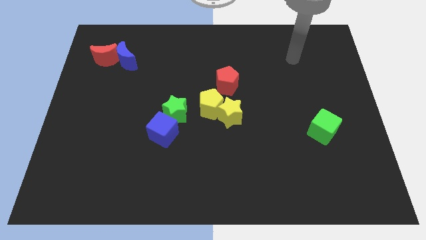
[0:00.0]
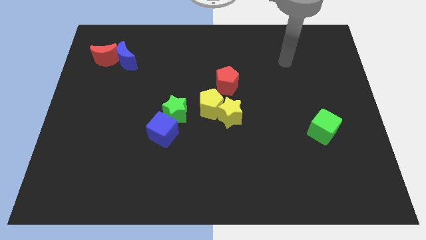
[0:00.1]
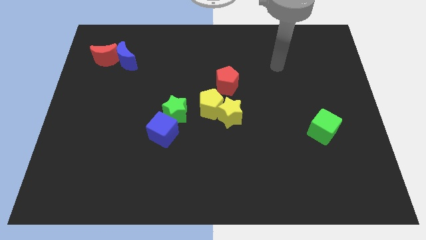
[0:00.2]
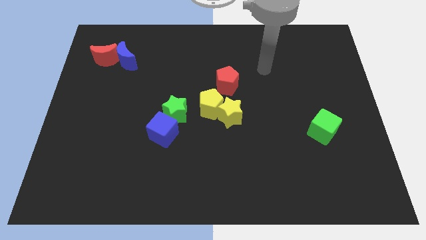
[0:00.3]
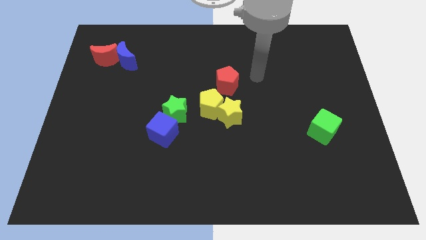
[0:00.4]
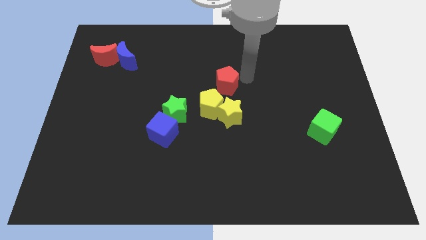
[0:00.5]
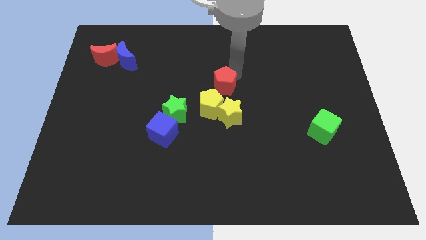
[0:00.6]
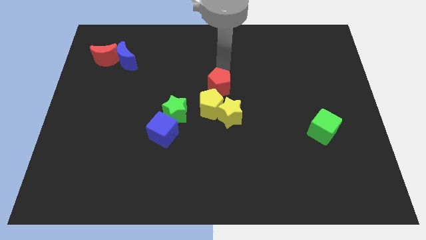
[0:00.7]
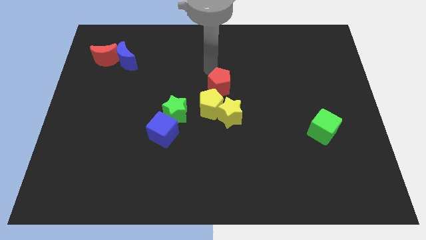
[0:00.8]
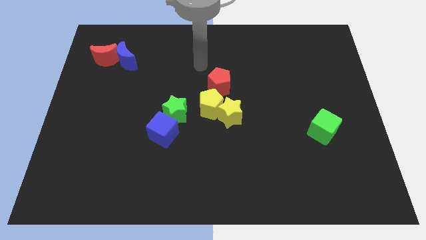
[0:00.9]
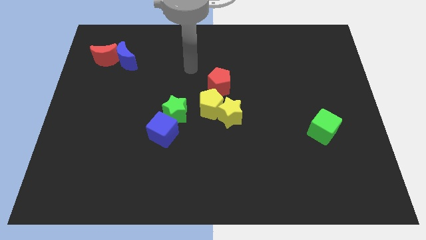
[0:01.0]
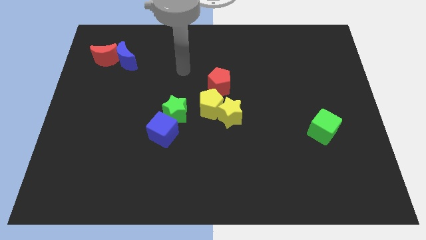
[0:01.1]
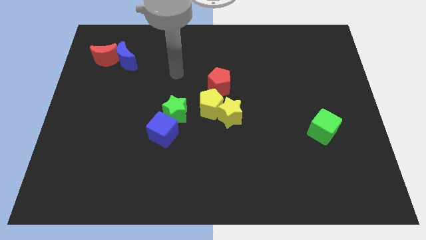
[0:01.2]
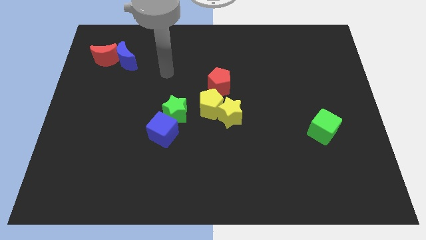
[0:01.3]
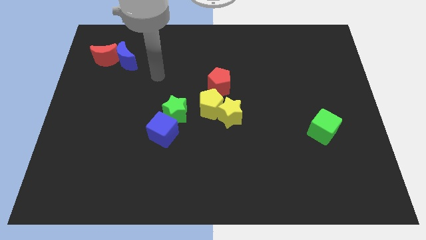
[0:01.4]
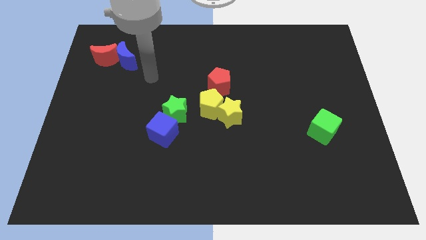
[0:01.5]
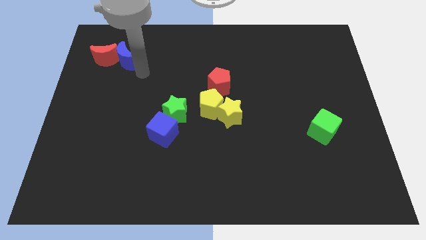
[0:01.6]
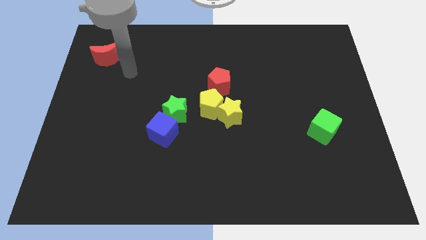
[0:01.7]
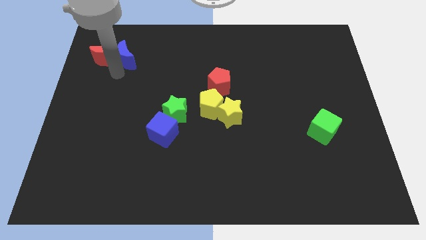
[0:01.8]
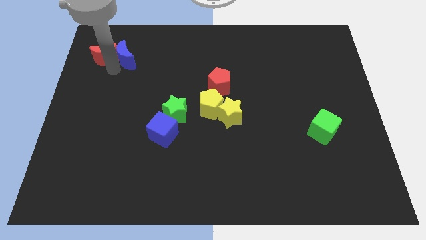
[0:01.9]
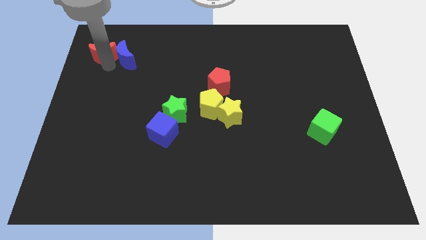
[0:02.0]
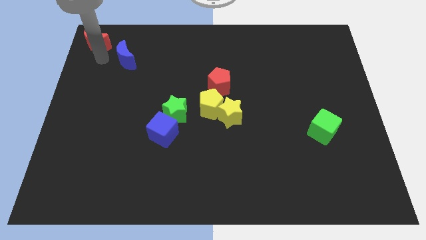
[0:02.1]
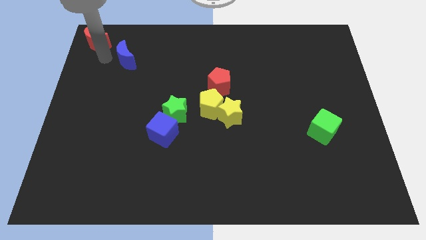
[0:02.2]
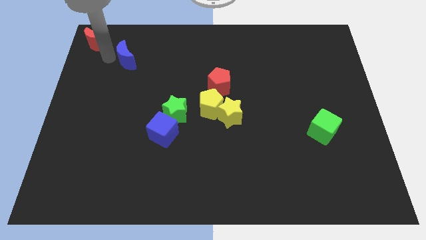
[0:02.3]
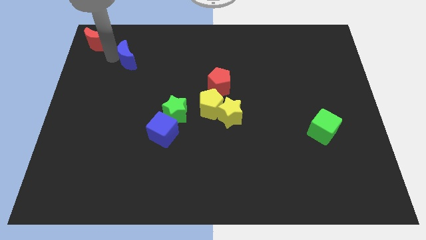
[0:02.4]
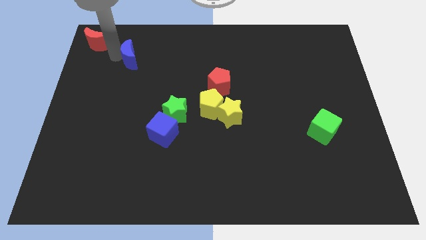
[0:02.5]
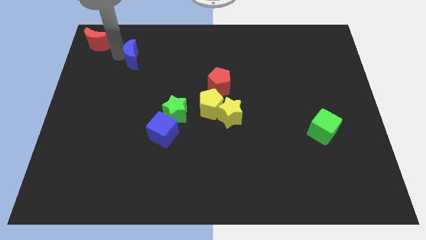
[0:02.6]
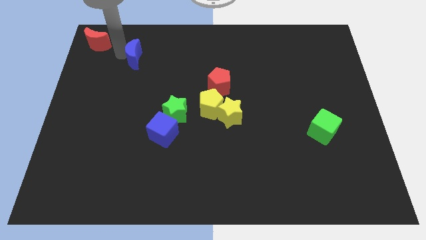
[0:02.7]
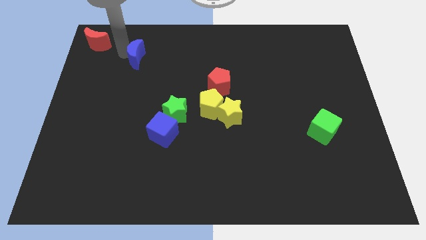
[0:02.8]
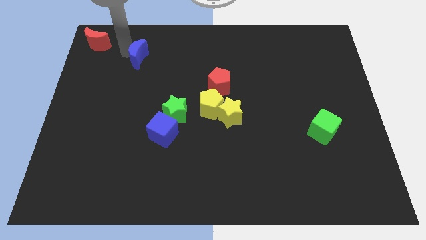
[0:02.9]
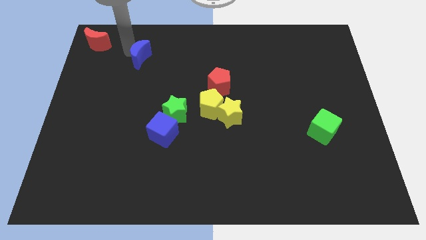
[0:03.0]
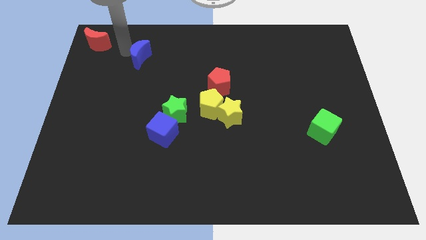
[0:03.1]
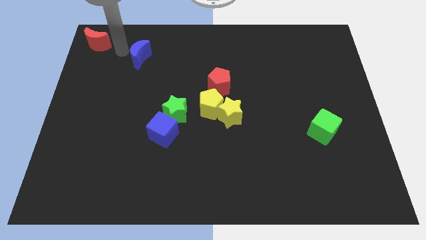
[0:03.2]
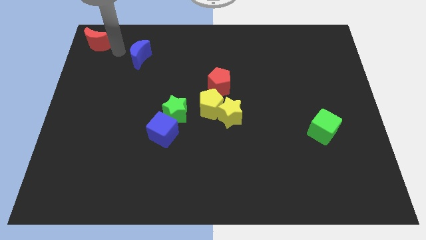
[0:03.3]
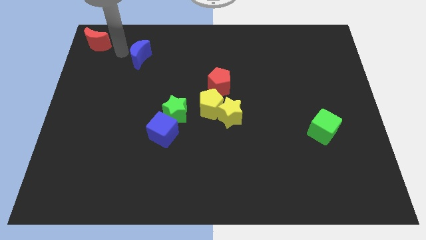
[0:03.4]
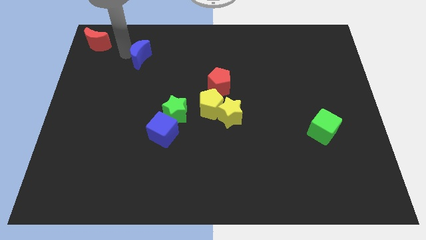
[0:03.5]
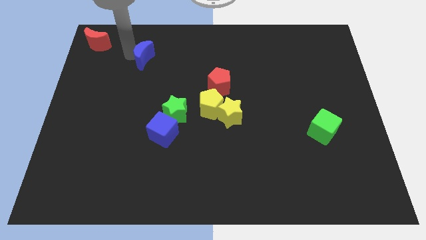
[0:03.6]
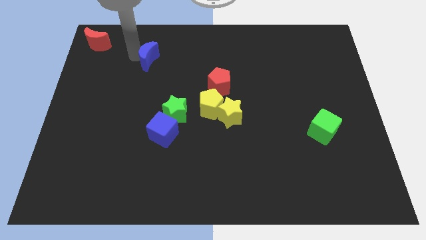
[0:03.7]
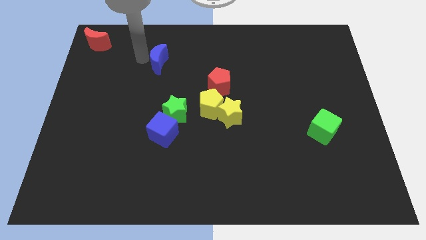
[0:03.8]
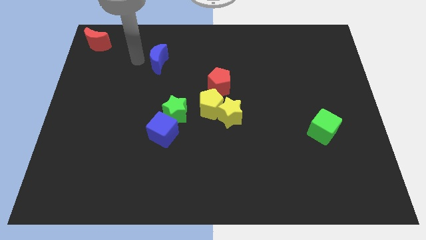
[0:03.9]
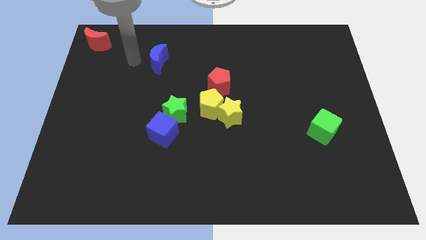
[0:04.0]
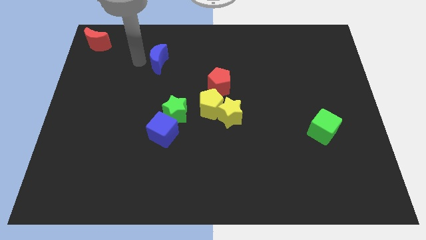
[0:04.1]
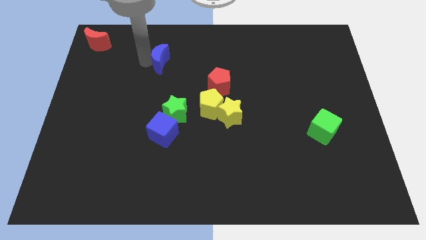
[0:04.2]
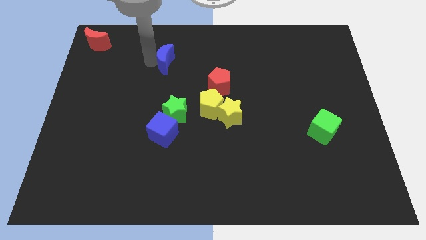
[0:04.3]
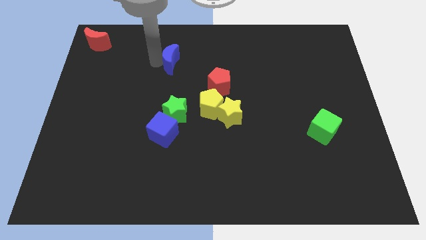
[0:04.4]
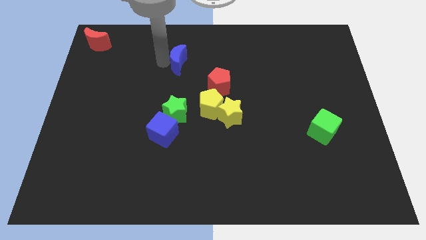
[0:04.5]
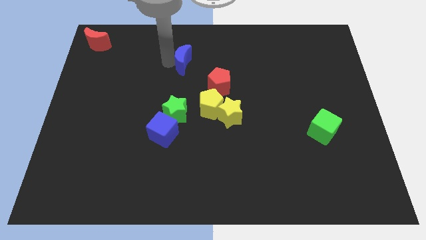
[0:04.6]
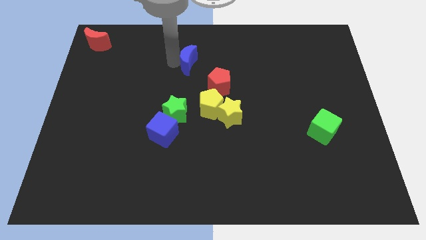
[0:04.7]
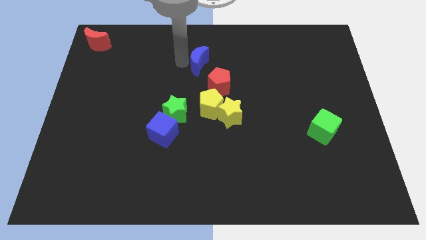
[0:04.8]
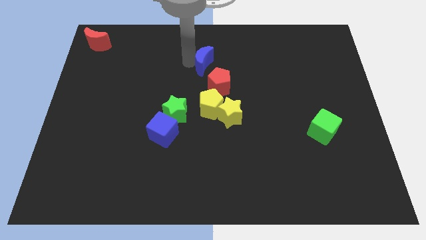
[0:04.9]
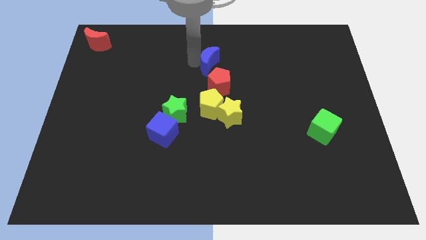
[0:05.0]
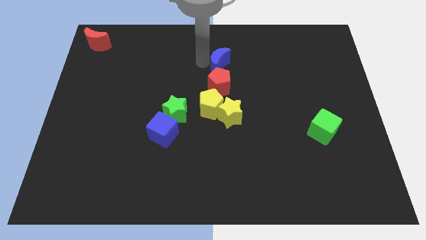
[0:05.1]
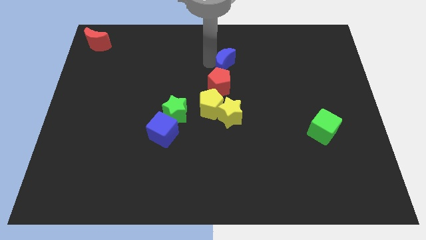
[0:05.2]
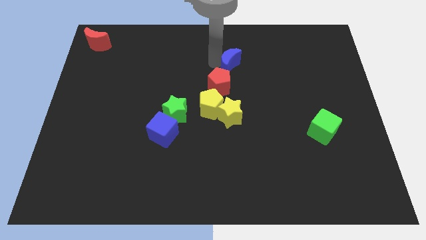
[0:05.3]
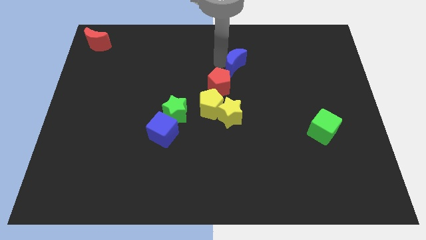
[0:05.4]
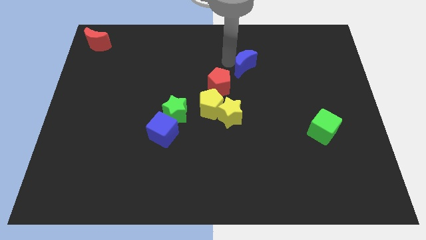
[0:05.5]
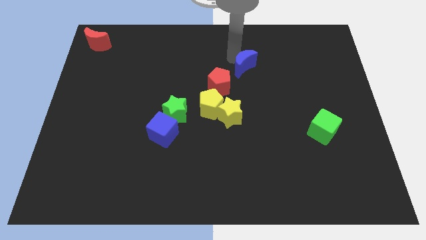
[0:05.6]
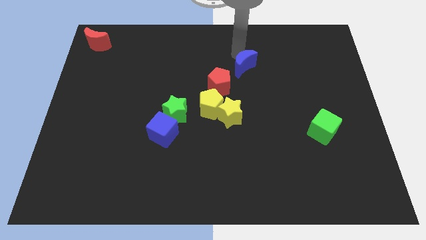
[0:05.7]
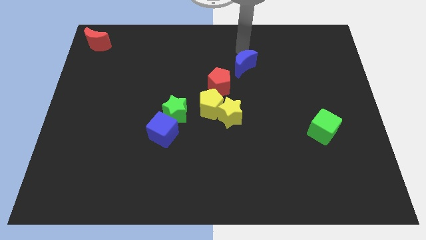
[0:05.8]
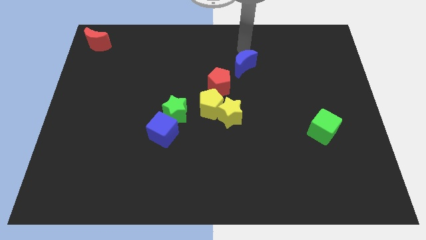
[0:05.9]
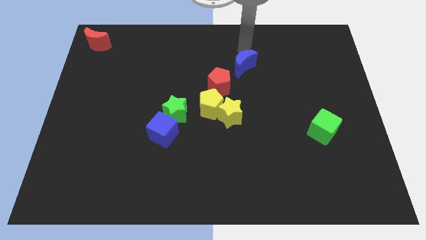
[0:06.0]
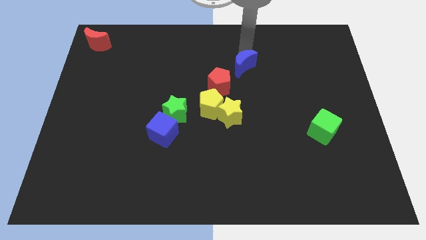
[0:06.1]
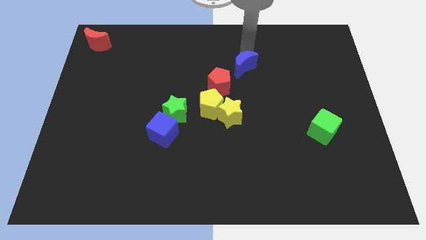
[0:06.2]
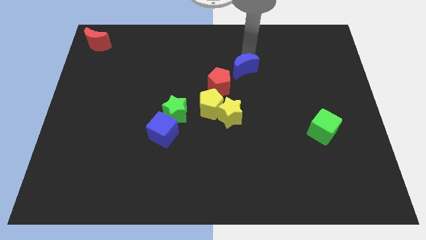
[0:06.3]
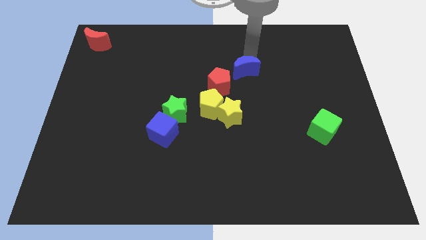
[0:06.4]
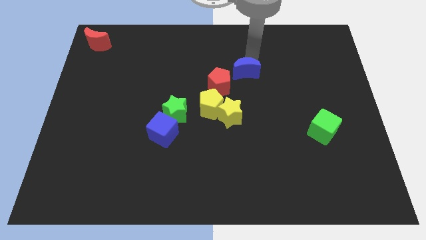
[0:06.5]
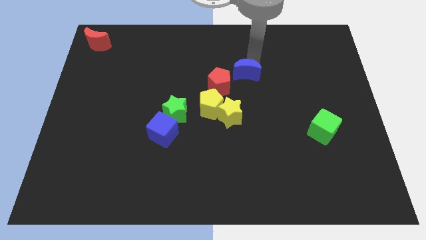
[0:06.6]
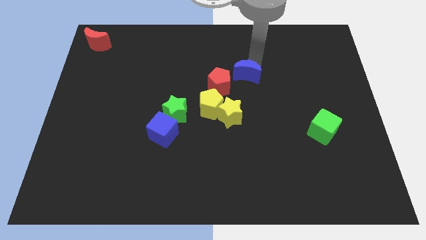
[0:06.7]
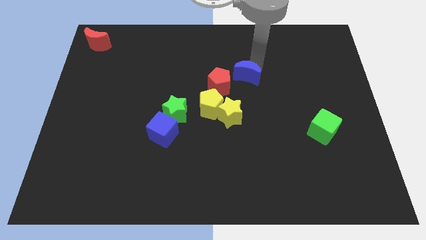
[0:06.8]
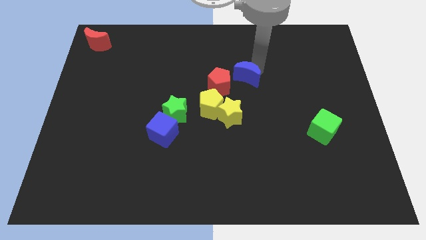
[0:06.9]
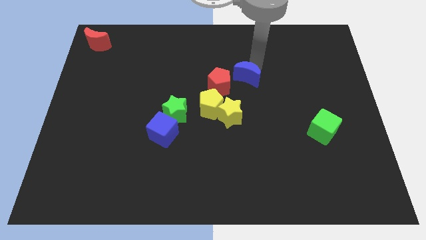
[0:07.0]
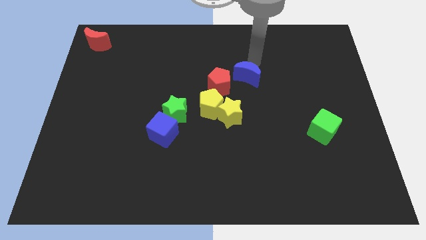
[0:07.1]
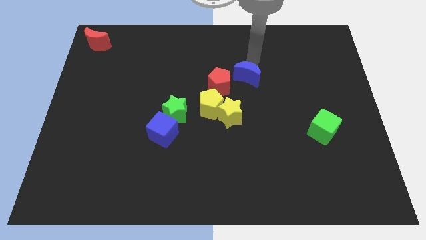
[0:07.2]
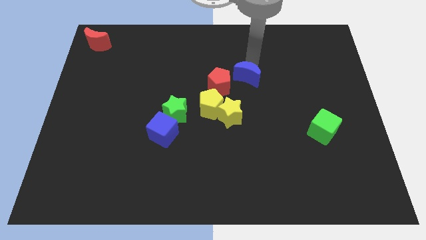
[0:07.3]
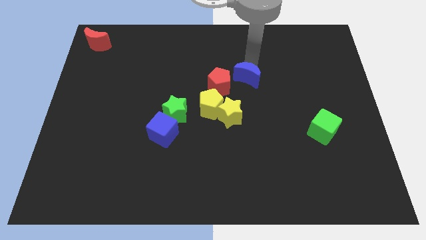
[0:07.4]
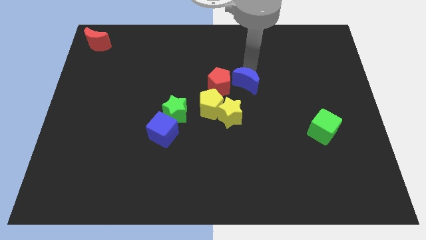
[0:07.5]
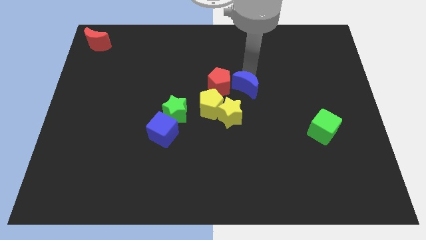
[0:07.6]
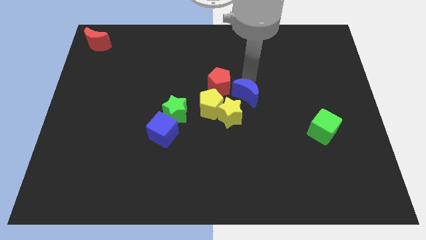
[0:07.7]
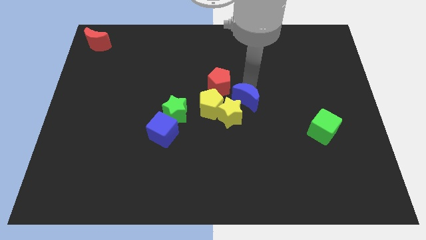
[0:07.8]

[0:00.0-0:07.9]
slide the blue moon towards the yellow star

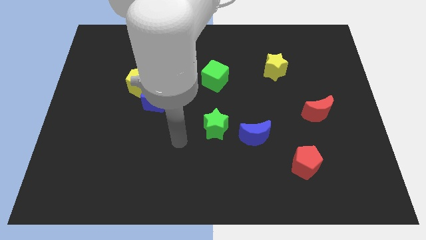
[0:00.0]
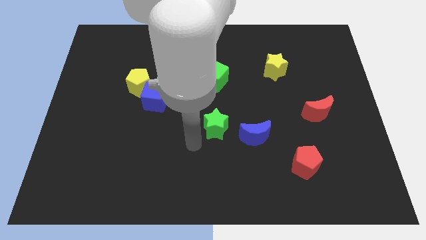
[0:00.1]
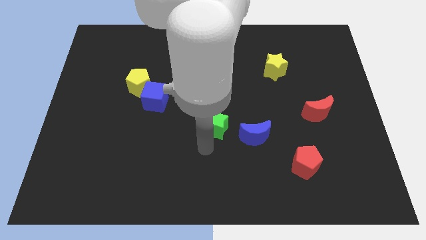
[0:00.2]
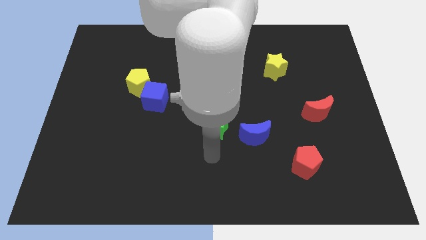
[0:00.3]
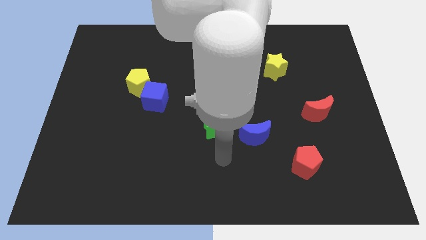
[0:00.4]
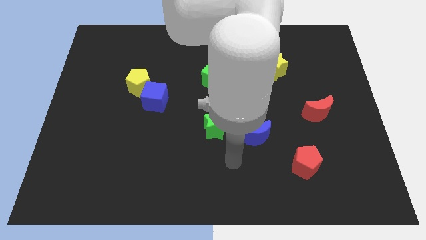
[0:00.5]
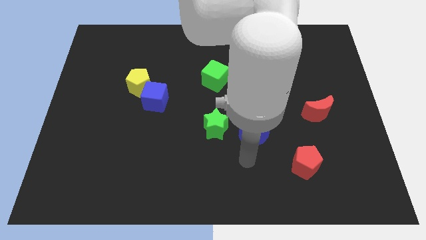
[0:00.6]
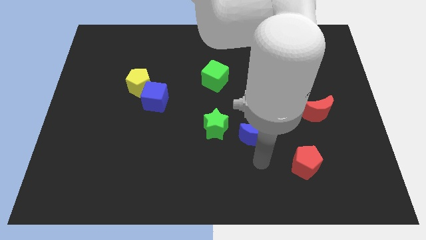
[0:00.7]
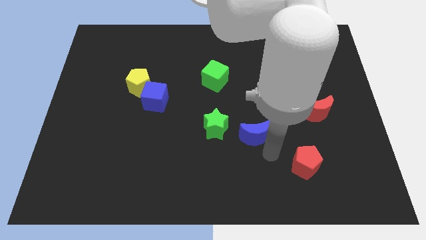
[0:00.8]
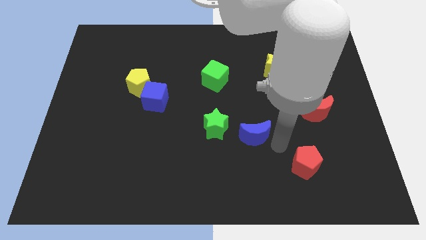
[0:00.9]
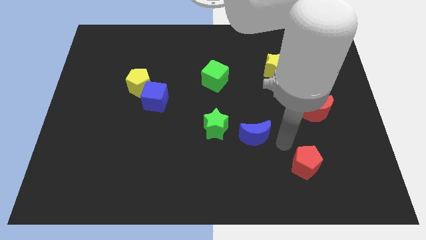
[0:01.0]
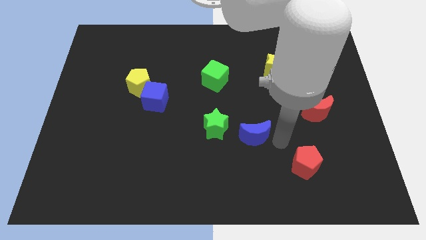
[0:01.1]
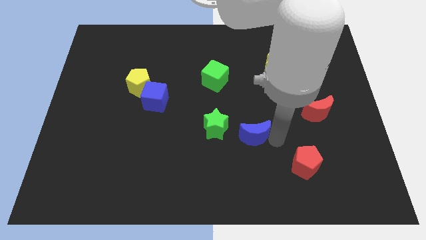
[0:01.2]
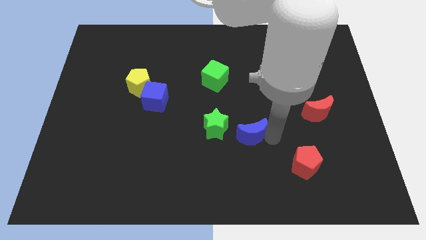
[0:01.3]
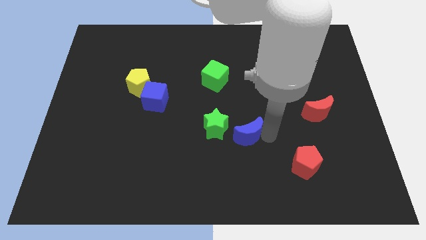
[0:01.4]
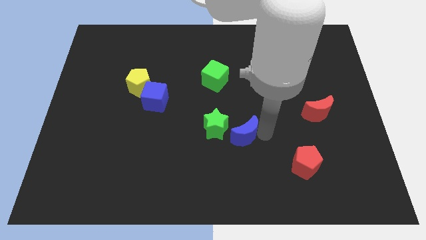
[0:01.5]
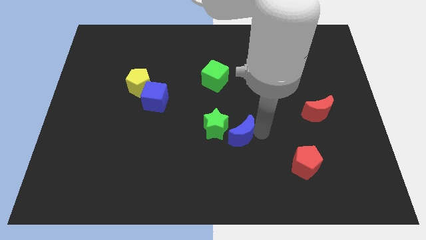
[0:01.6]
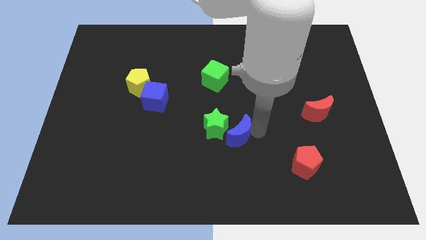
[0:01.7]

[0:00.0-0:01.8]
move the blue moon to the green star
